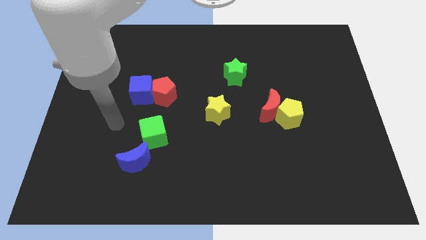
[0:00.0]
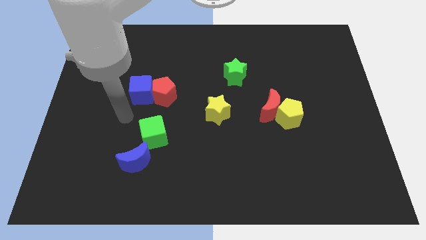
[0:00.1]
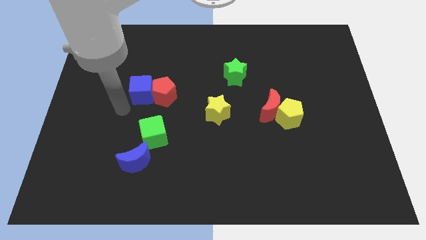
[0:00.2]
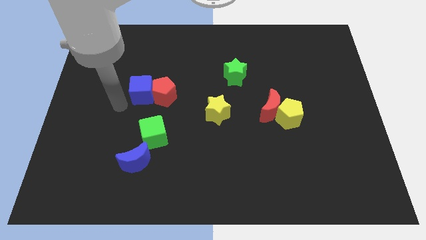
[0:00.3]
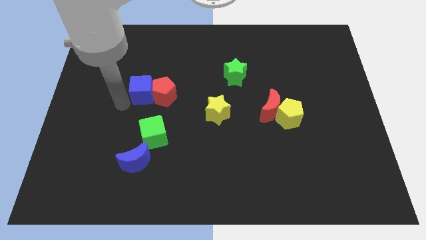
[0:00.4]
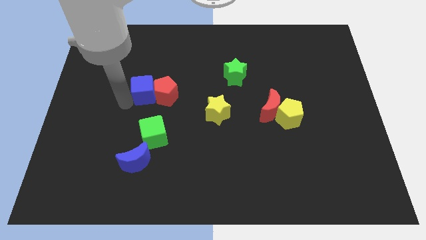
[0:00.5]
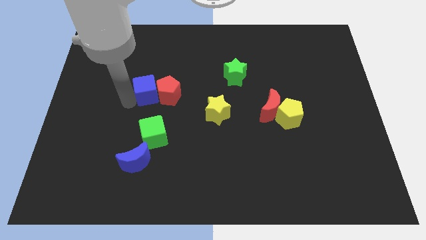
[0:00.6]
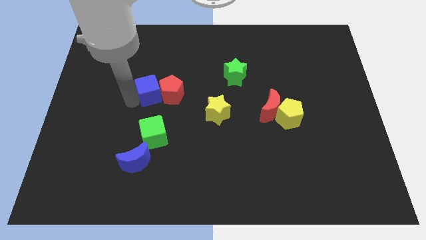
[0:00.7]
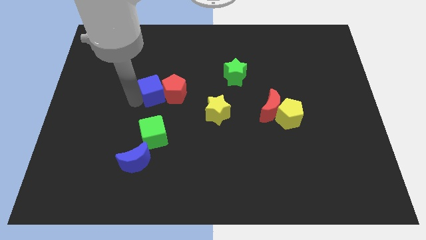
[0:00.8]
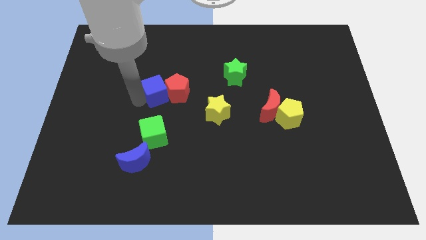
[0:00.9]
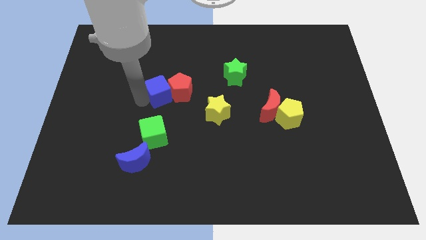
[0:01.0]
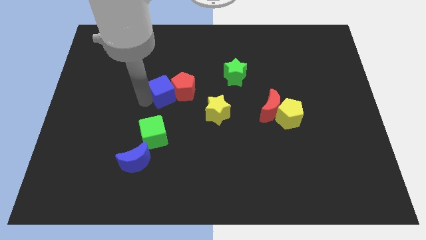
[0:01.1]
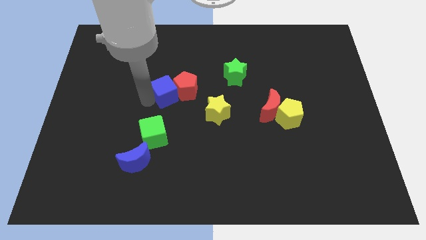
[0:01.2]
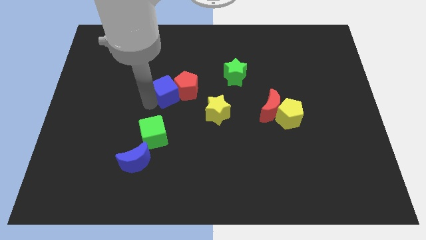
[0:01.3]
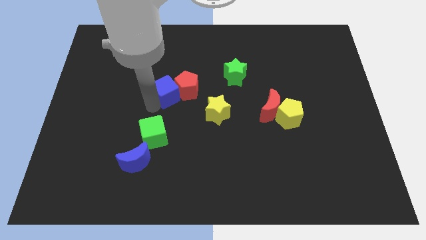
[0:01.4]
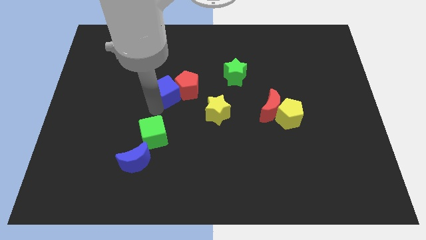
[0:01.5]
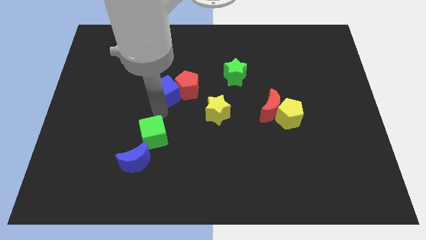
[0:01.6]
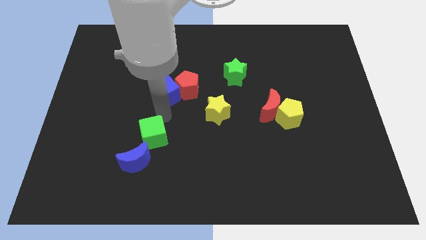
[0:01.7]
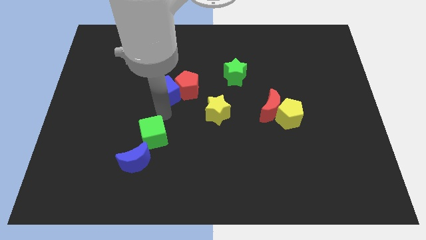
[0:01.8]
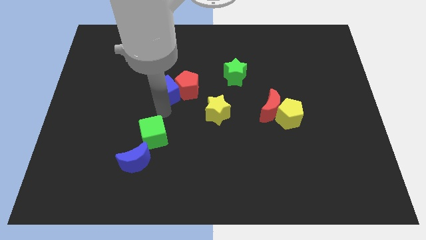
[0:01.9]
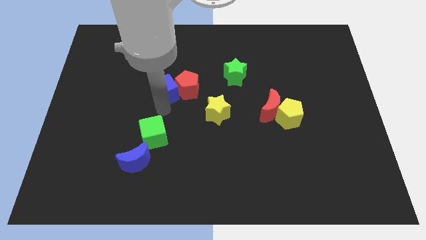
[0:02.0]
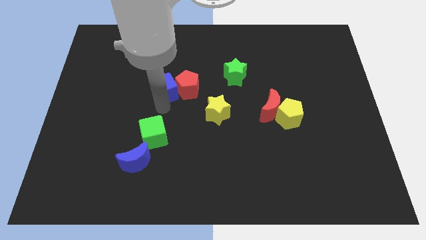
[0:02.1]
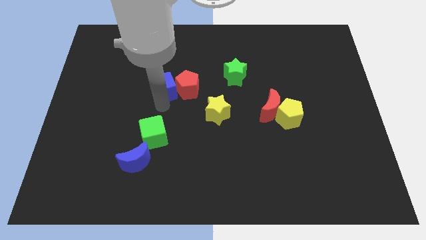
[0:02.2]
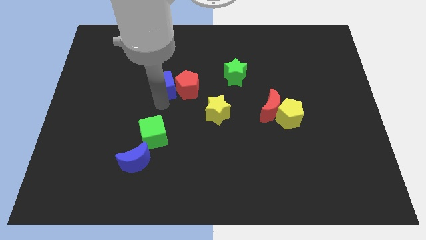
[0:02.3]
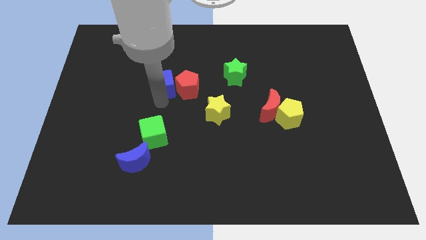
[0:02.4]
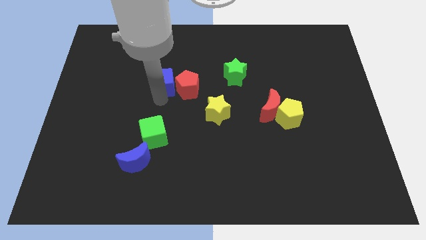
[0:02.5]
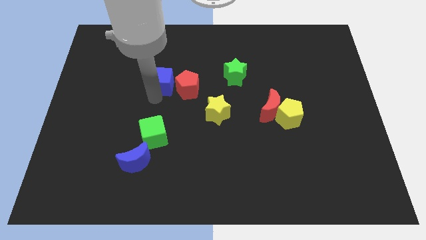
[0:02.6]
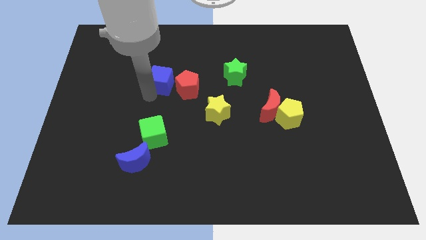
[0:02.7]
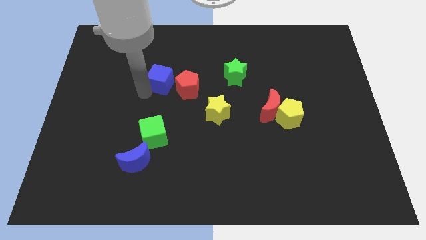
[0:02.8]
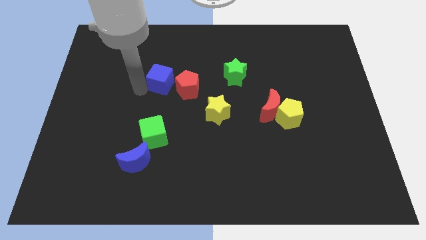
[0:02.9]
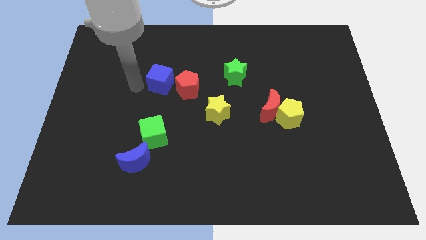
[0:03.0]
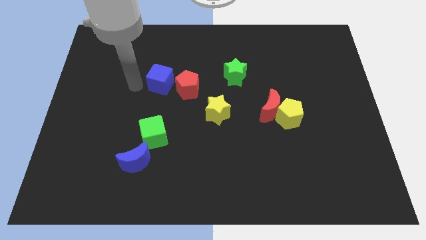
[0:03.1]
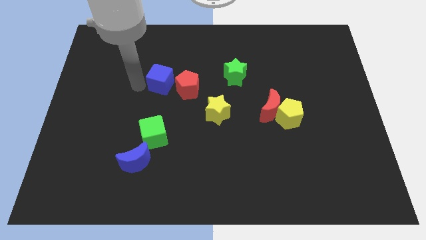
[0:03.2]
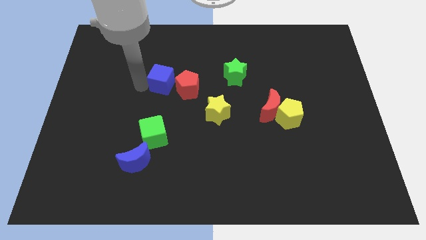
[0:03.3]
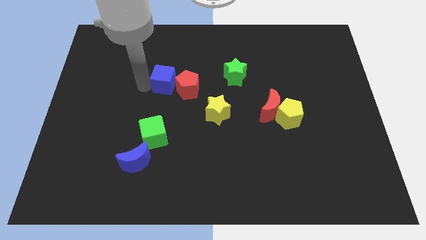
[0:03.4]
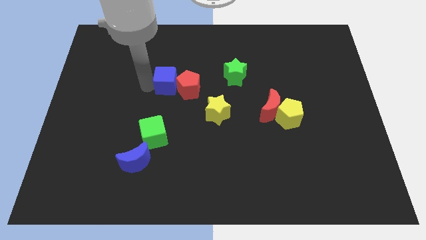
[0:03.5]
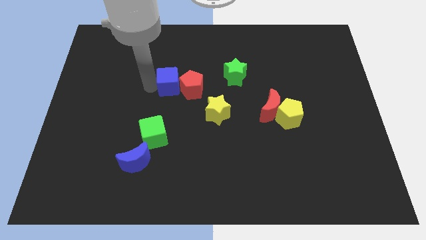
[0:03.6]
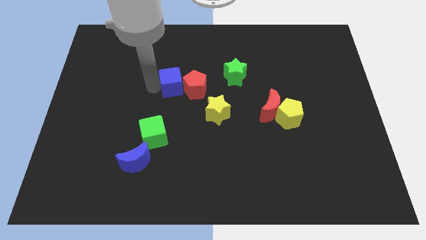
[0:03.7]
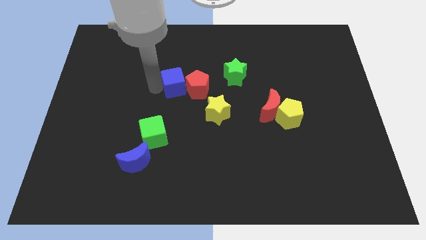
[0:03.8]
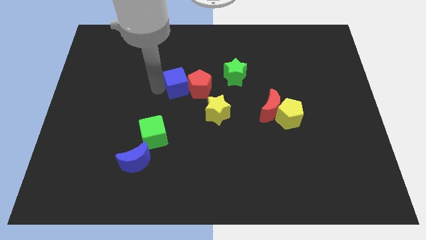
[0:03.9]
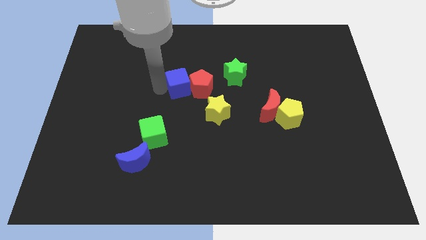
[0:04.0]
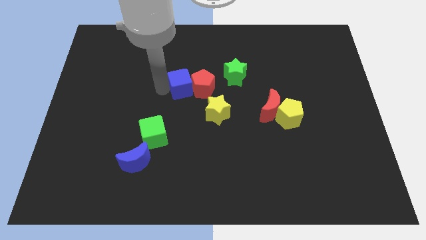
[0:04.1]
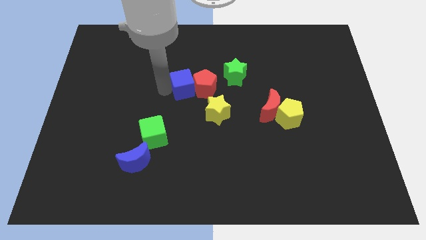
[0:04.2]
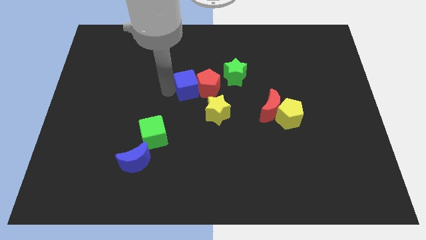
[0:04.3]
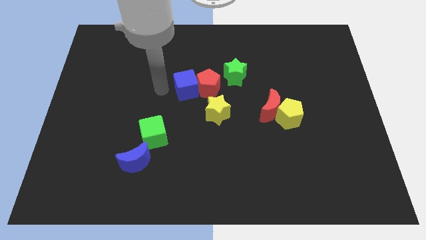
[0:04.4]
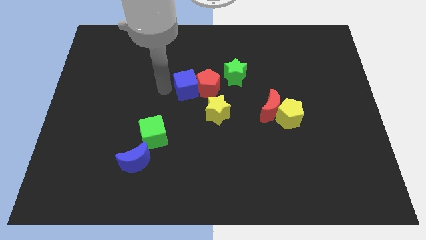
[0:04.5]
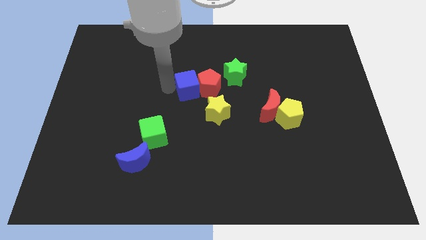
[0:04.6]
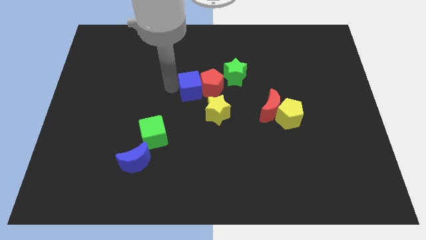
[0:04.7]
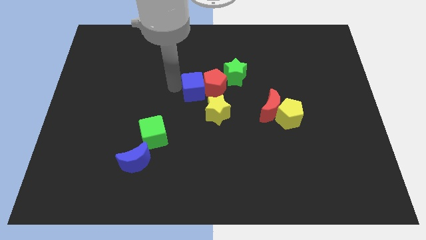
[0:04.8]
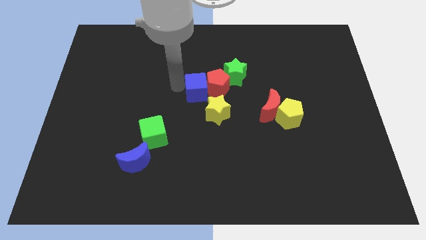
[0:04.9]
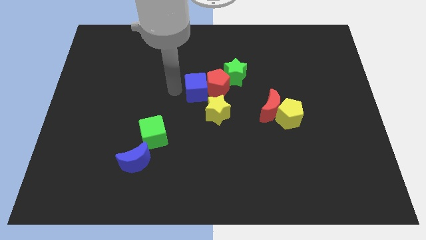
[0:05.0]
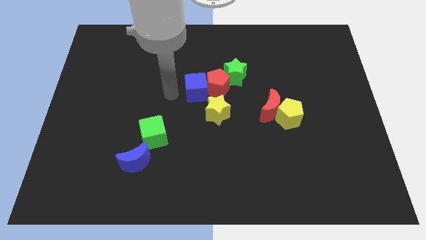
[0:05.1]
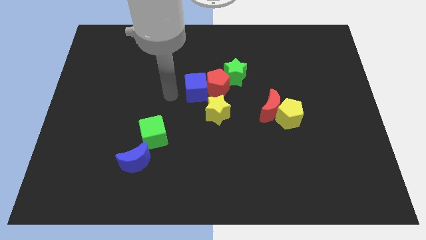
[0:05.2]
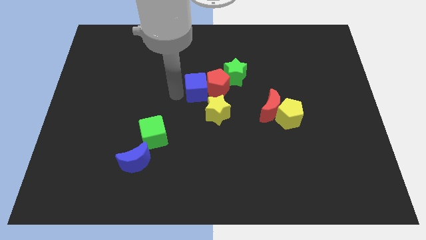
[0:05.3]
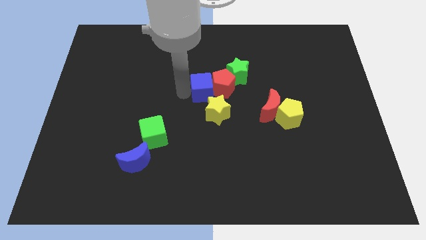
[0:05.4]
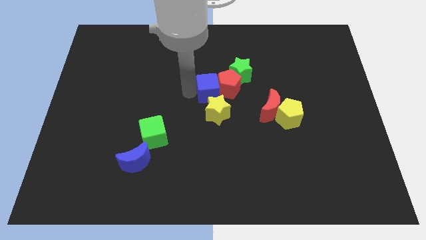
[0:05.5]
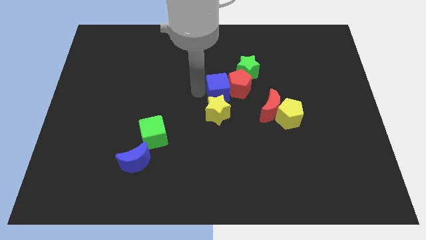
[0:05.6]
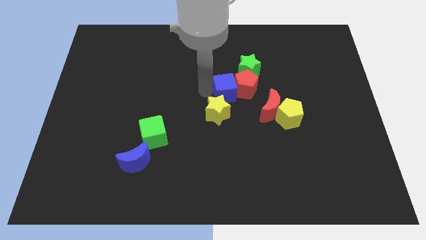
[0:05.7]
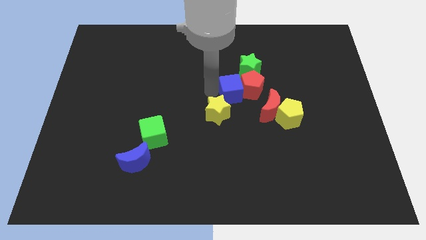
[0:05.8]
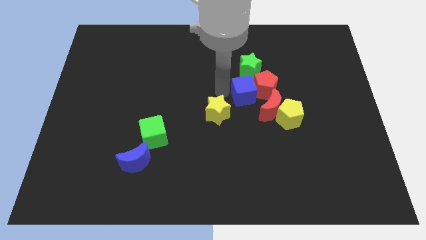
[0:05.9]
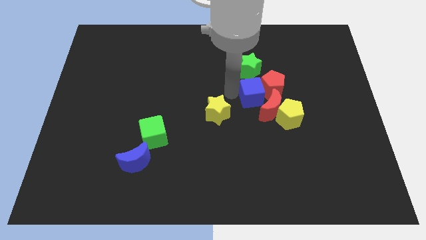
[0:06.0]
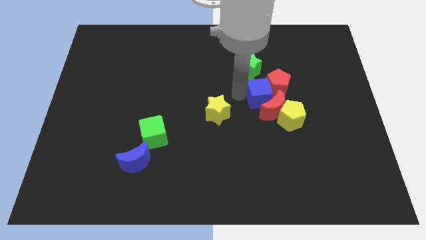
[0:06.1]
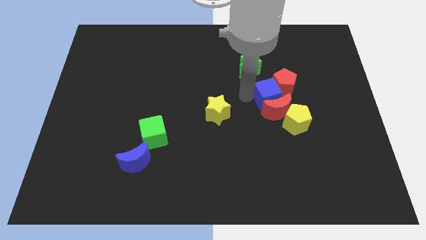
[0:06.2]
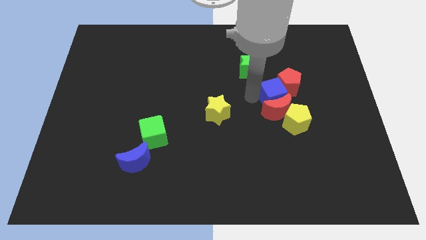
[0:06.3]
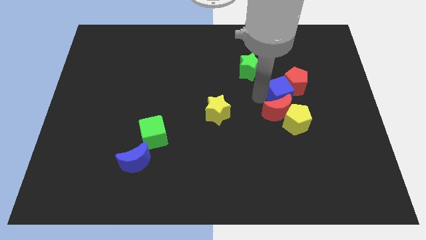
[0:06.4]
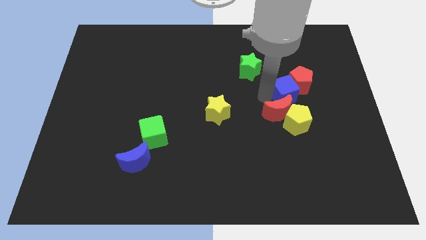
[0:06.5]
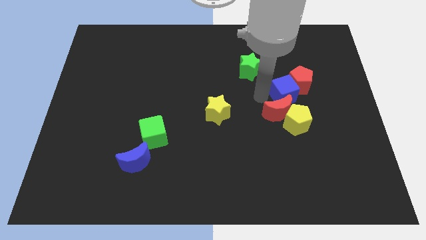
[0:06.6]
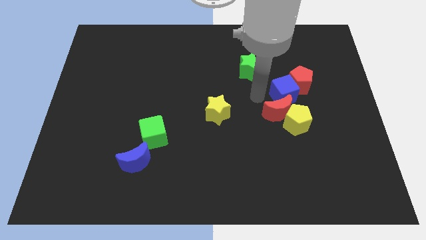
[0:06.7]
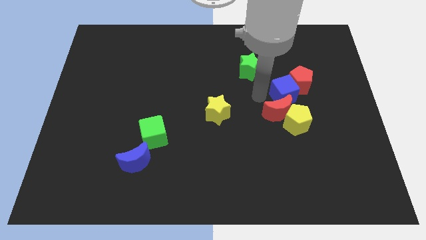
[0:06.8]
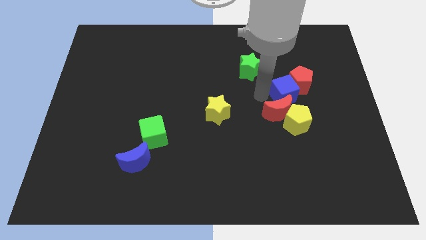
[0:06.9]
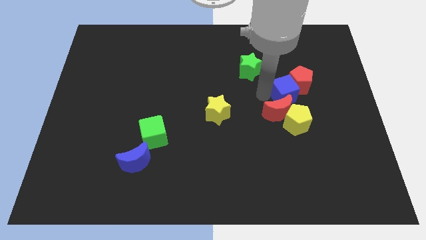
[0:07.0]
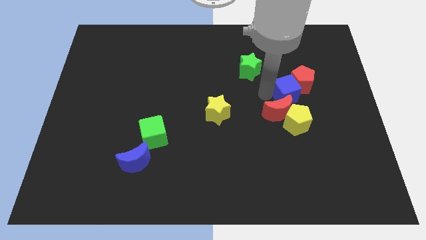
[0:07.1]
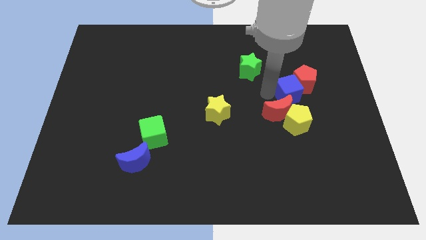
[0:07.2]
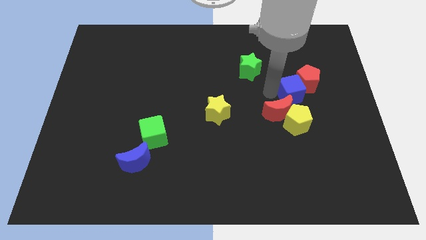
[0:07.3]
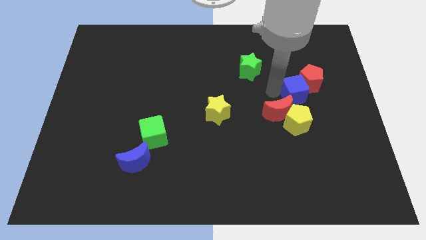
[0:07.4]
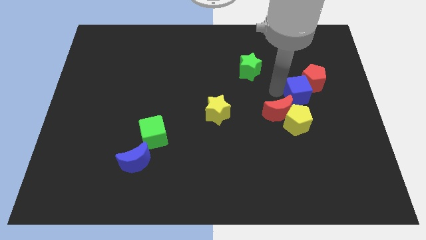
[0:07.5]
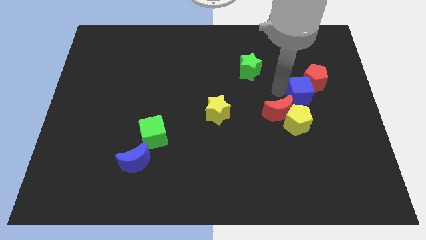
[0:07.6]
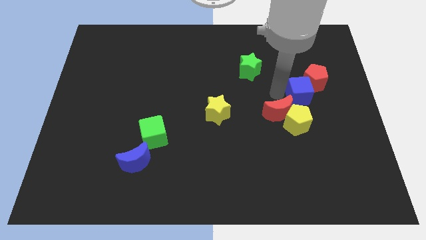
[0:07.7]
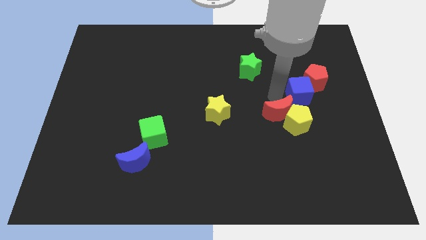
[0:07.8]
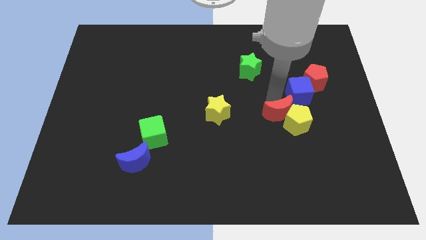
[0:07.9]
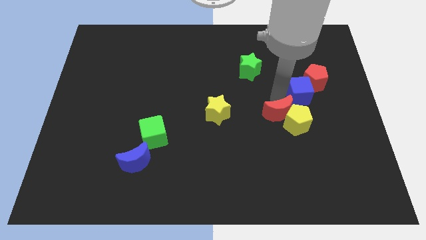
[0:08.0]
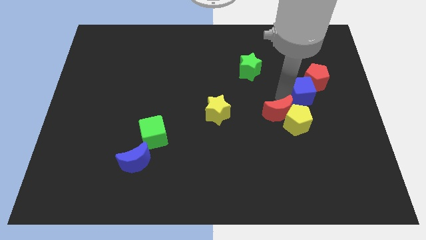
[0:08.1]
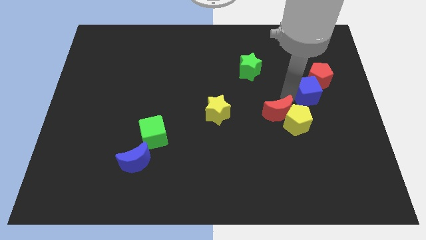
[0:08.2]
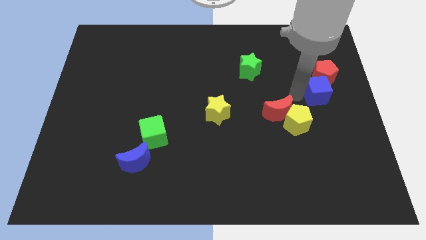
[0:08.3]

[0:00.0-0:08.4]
put the blue cube to the center right
